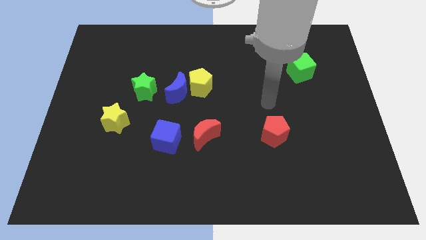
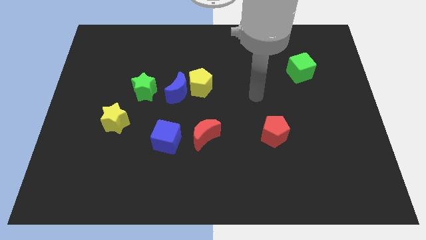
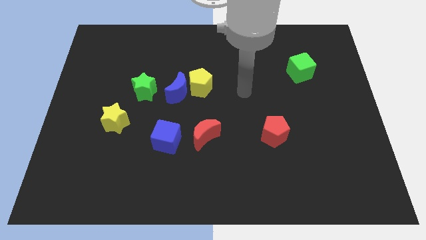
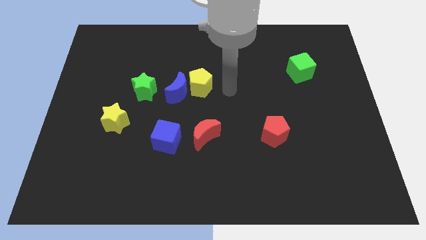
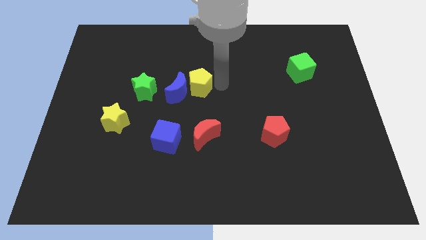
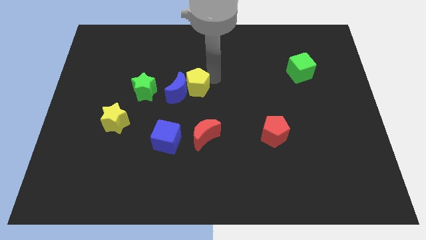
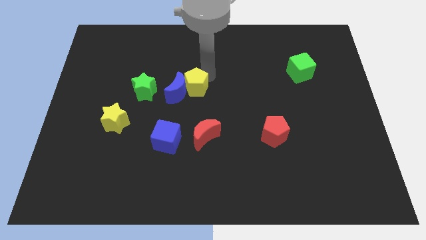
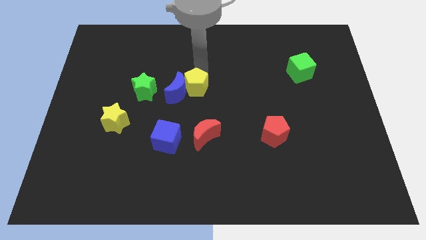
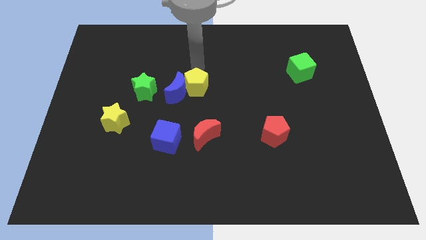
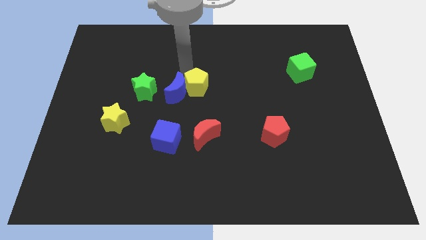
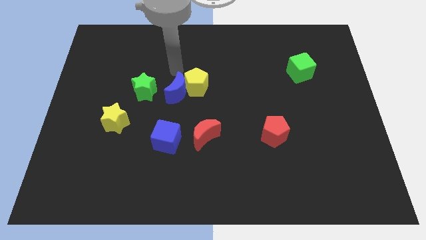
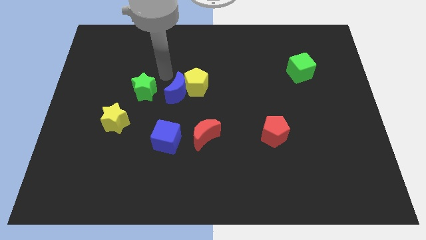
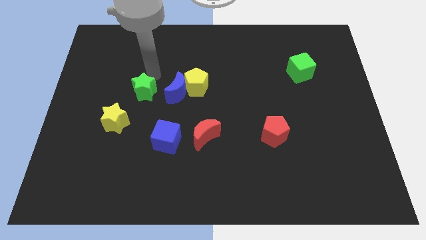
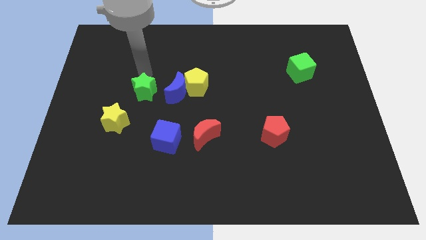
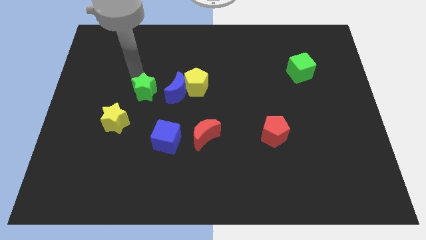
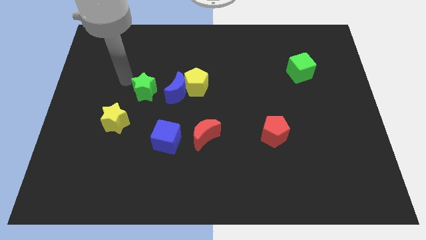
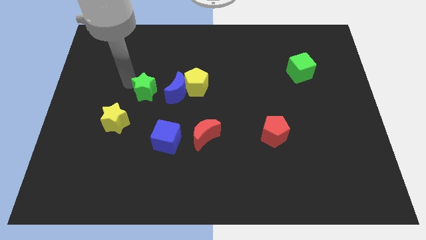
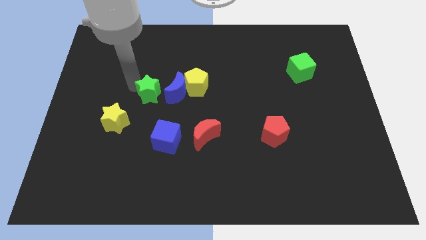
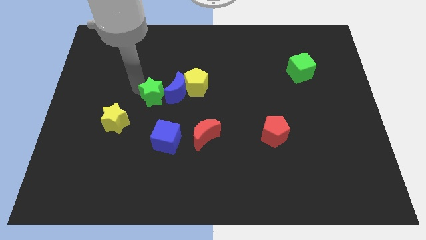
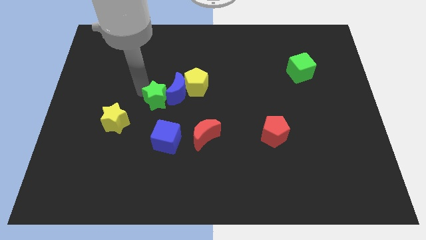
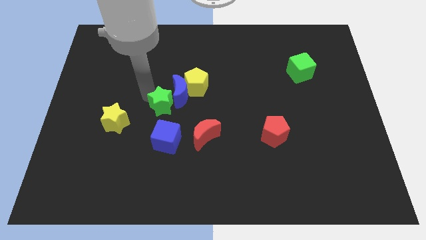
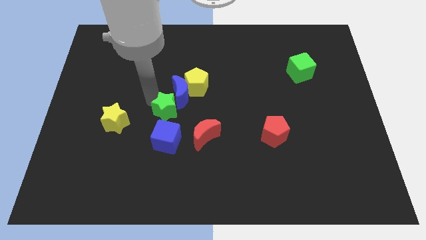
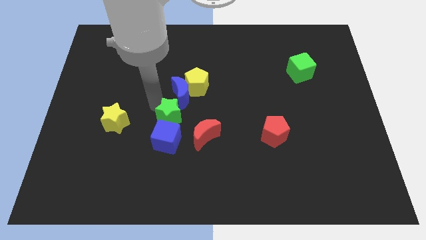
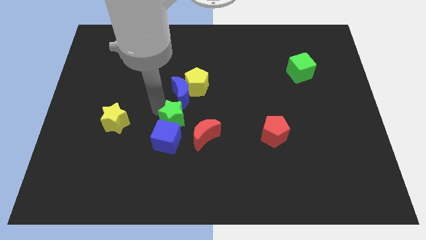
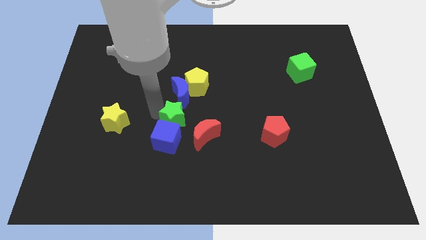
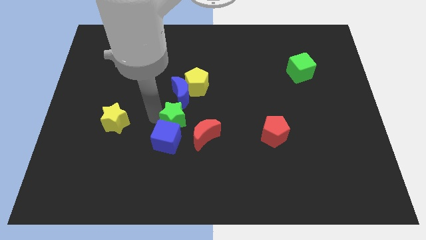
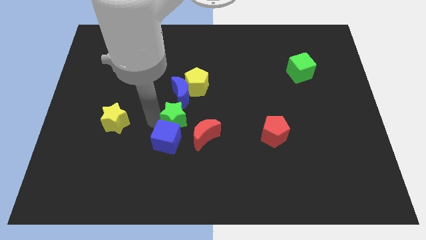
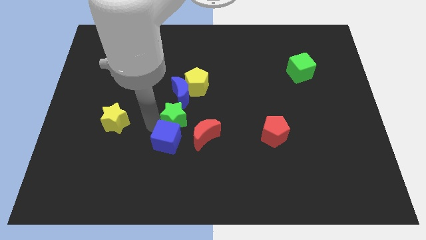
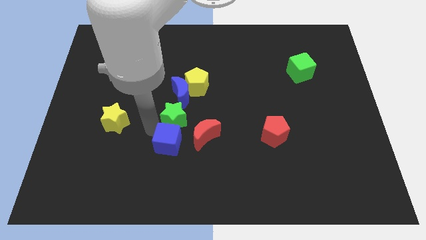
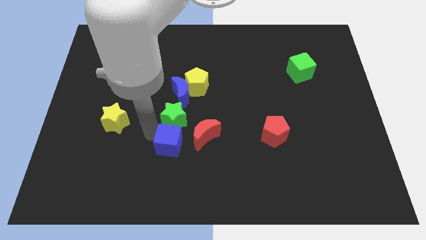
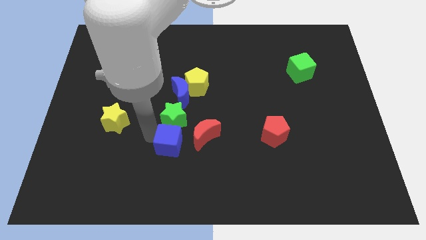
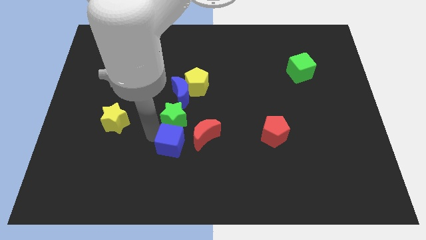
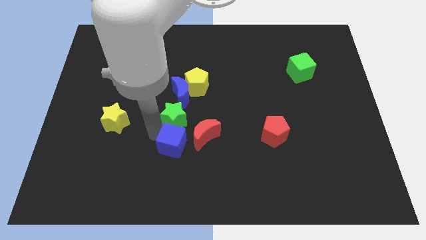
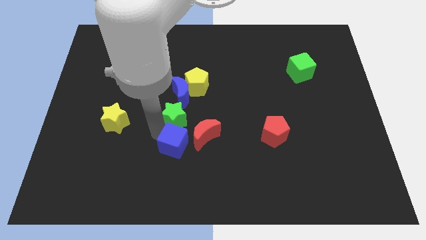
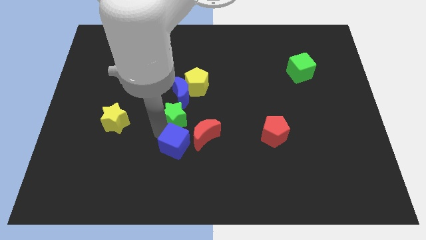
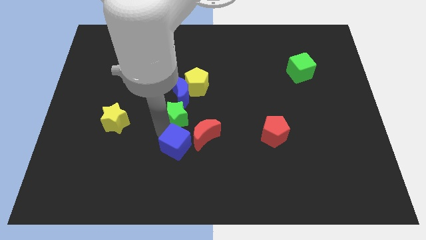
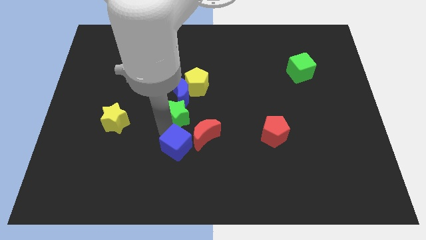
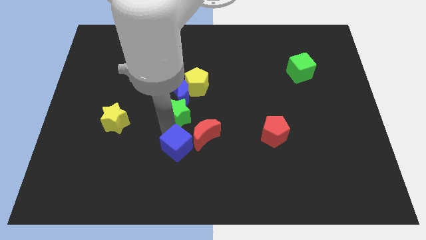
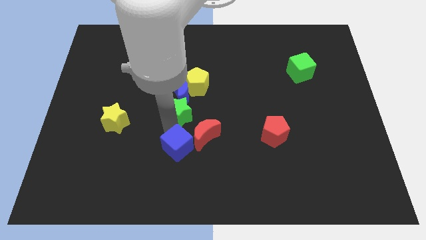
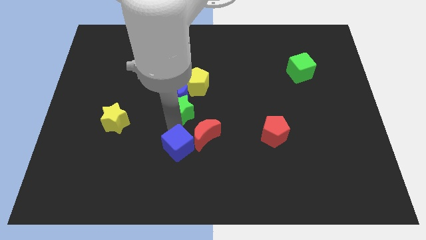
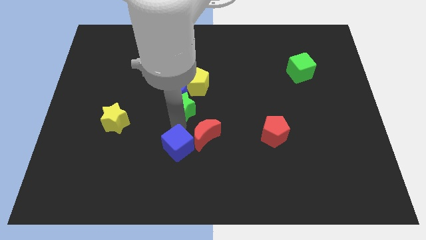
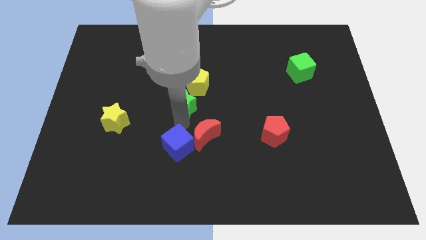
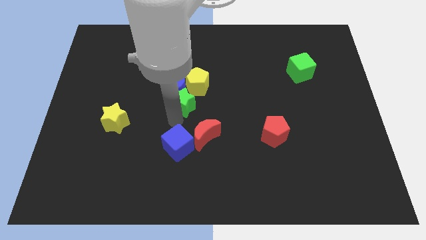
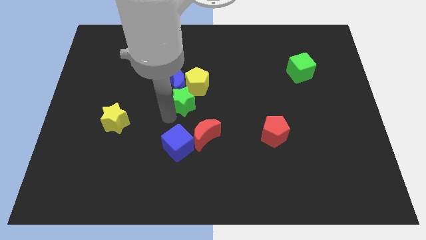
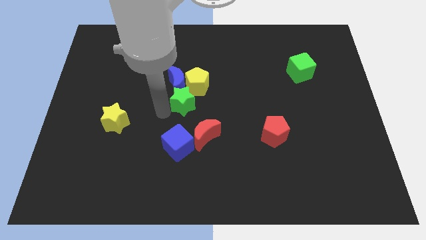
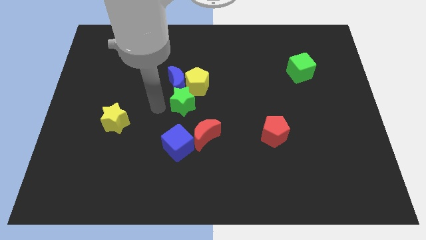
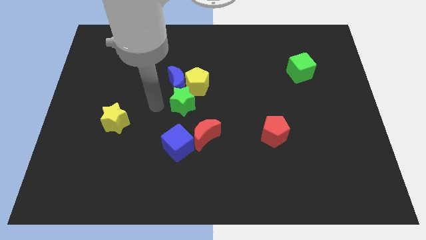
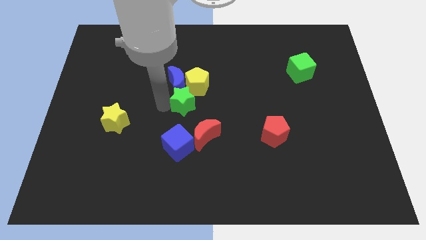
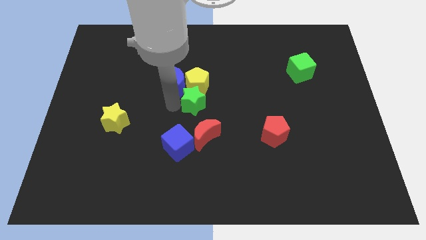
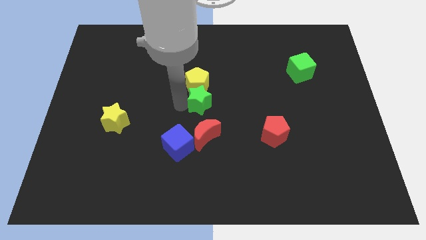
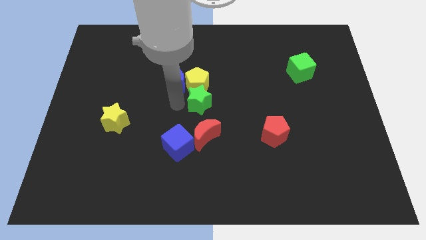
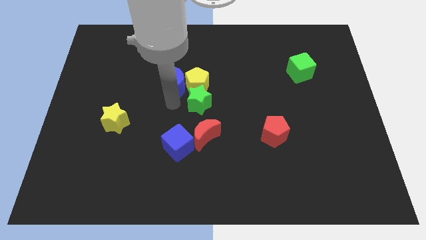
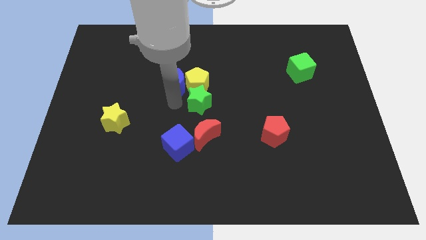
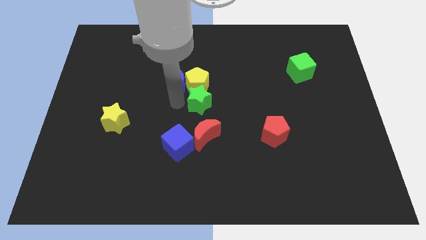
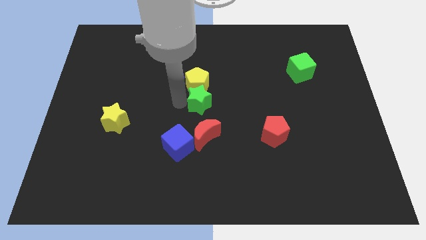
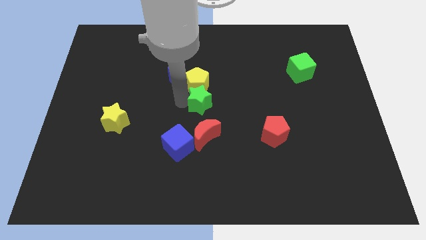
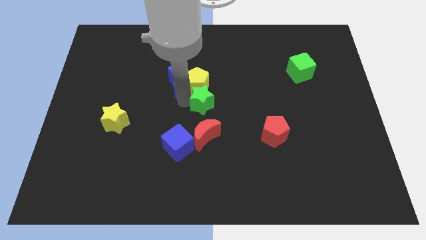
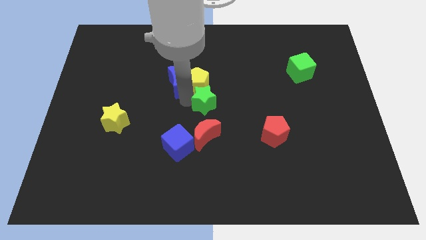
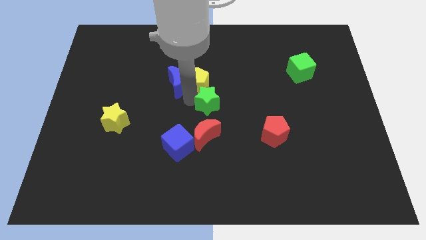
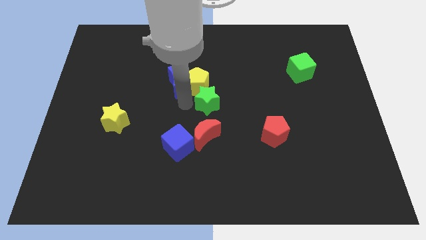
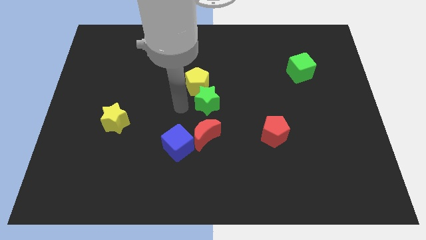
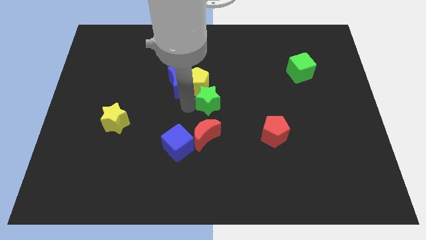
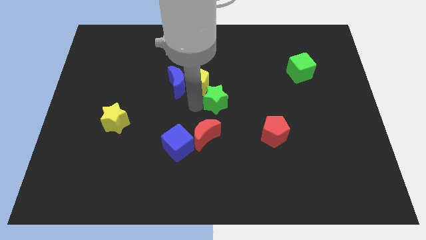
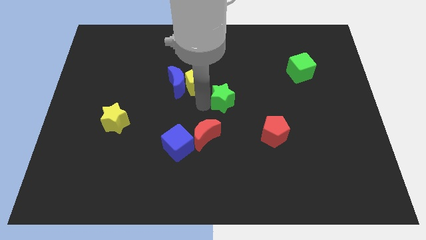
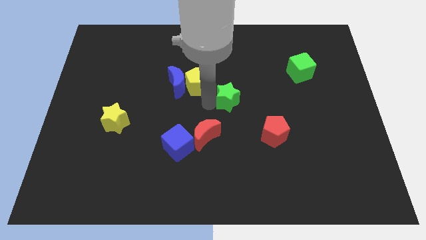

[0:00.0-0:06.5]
slide the green star right

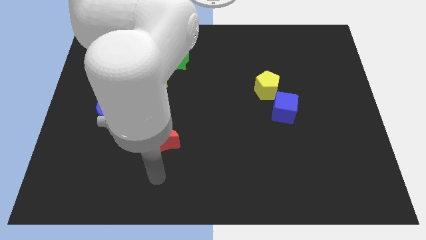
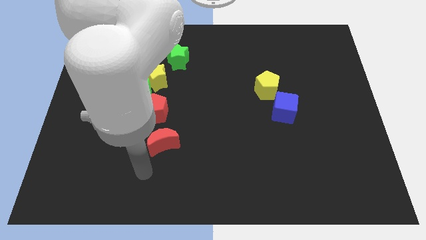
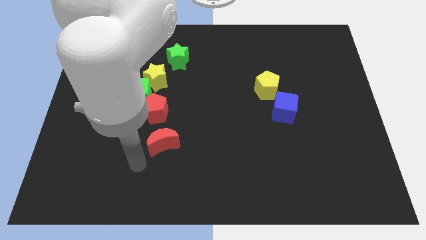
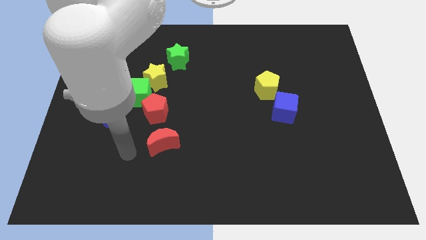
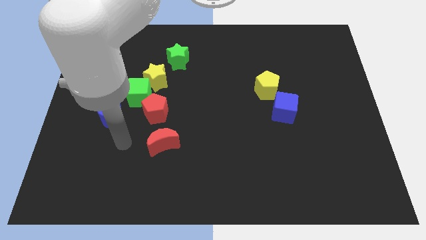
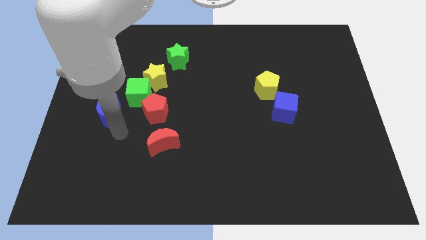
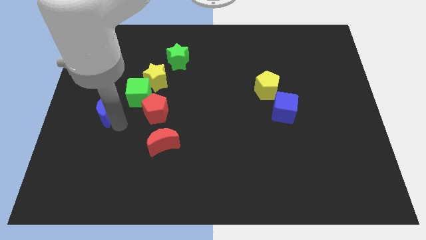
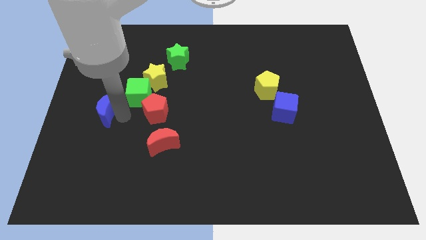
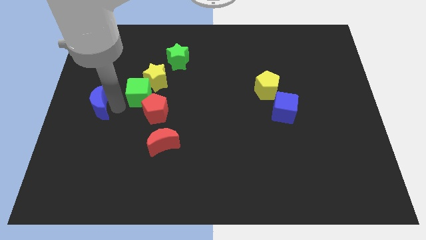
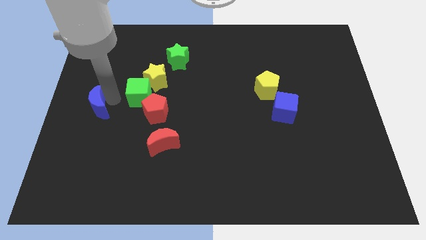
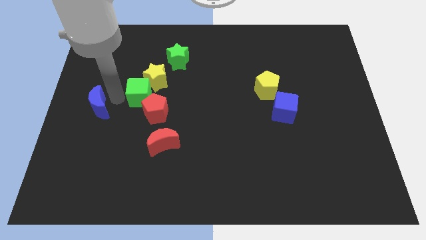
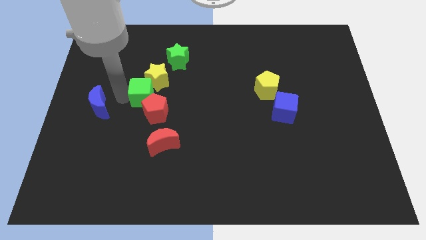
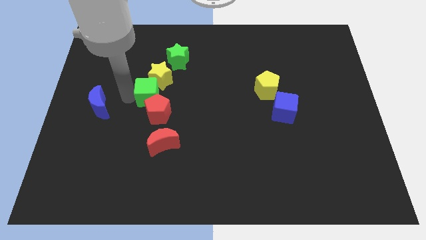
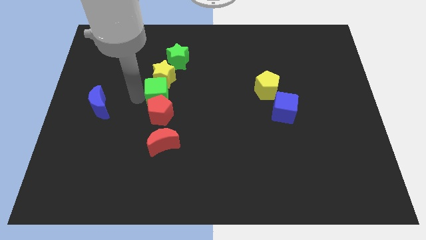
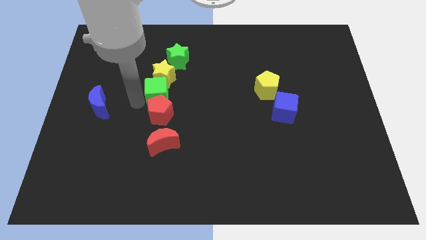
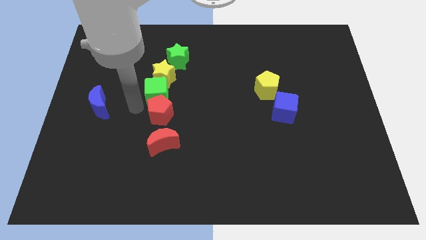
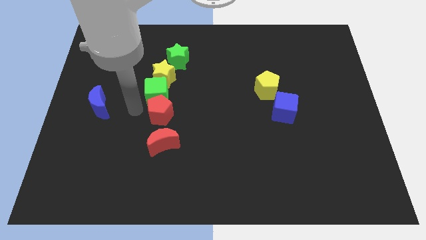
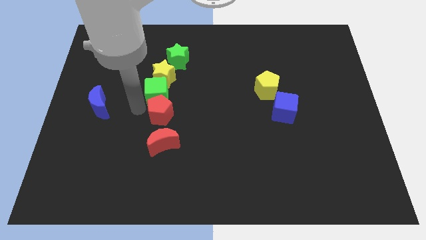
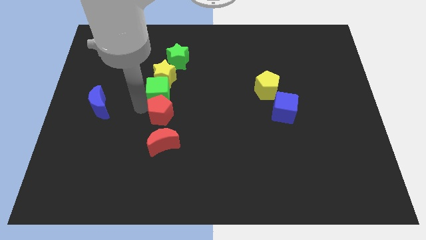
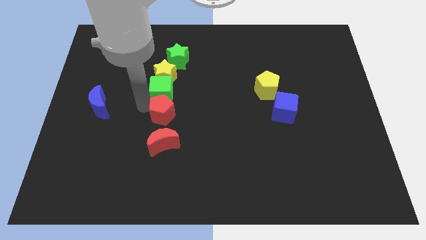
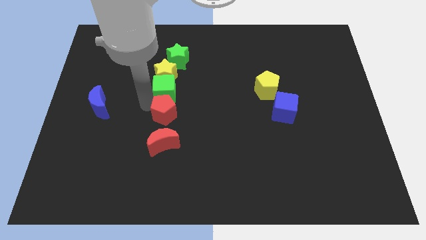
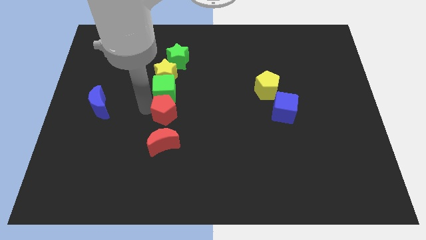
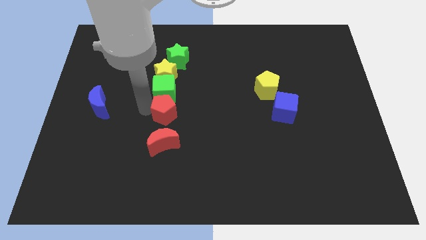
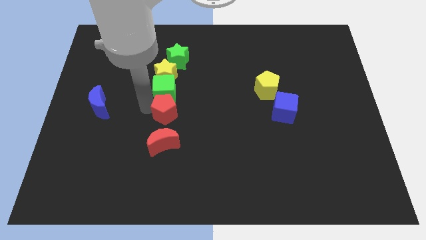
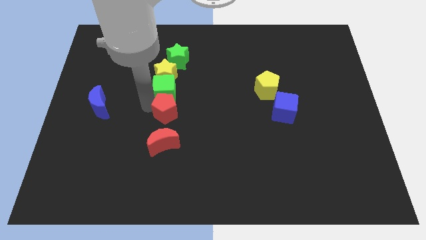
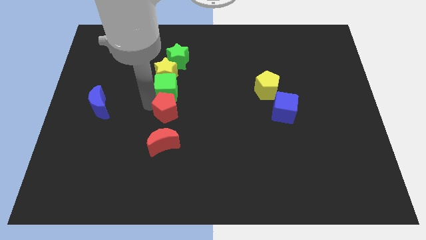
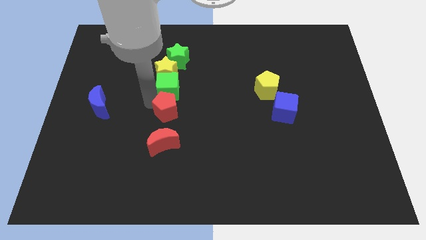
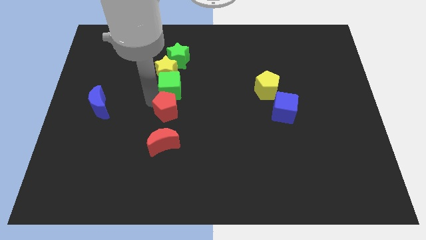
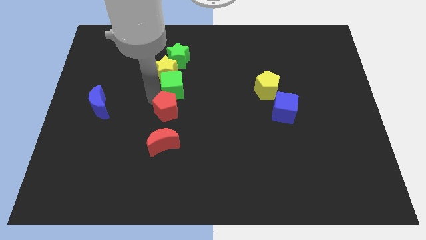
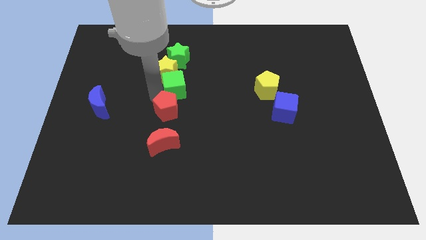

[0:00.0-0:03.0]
move the green cube upwards and right slightly
